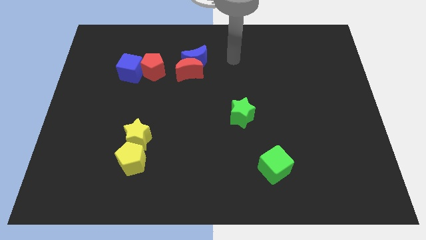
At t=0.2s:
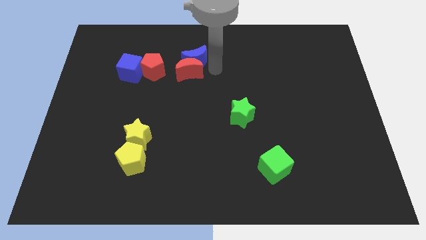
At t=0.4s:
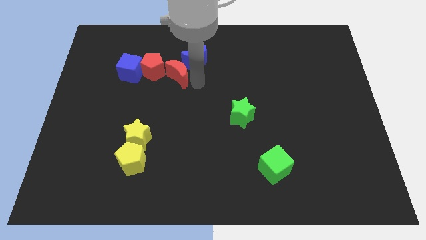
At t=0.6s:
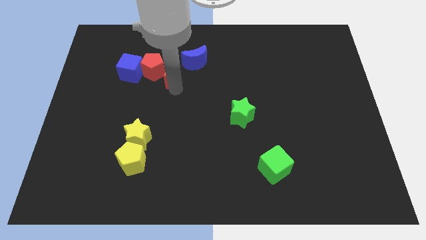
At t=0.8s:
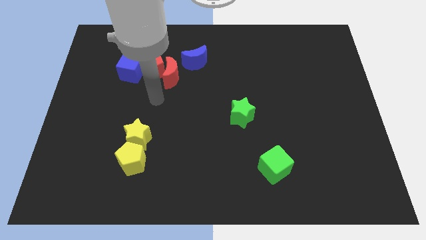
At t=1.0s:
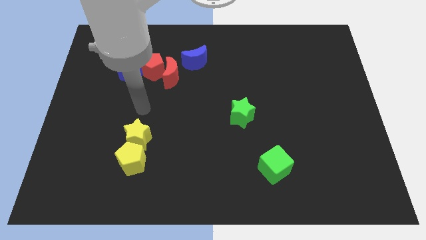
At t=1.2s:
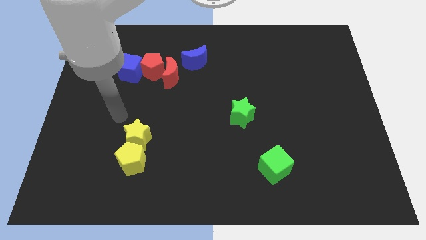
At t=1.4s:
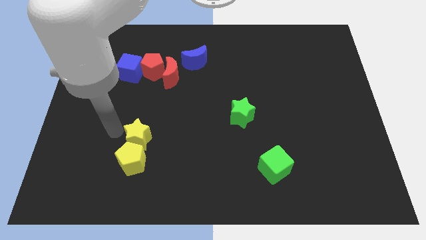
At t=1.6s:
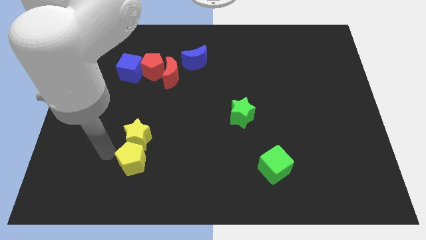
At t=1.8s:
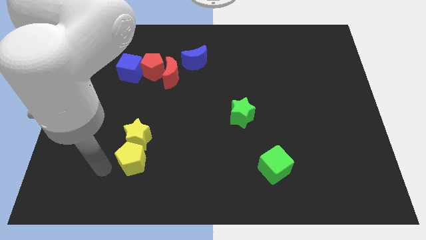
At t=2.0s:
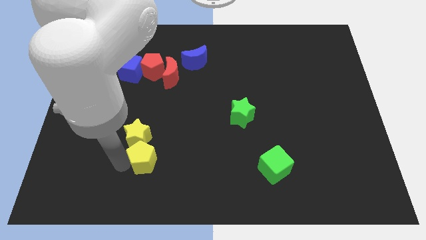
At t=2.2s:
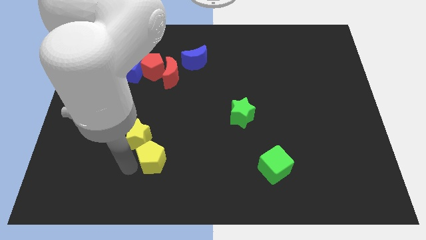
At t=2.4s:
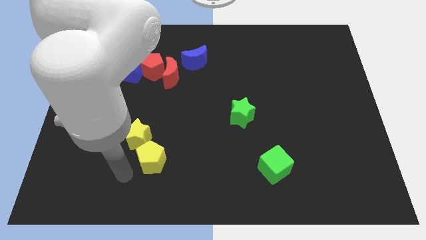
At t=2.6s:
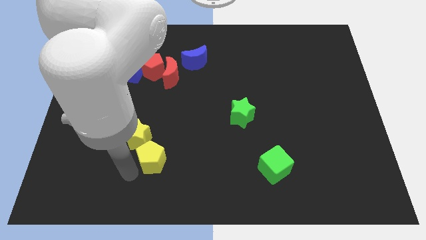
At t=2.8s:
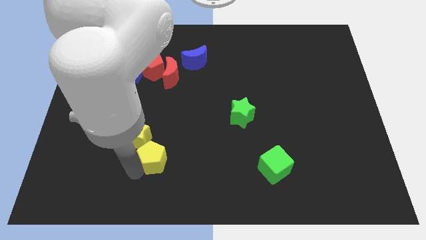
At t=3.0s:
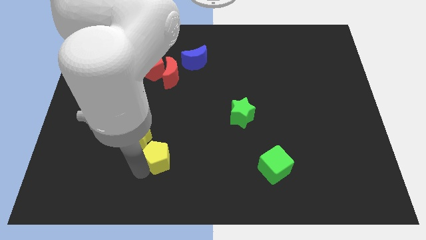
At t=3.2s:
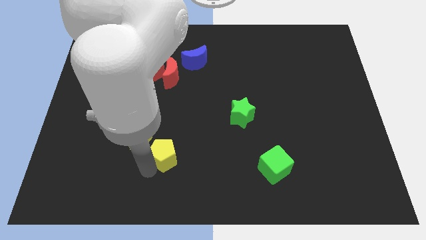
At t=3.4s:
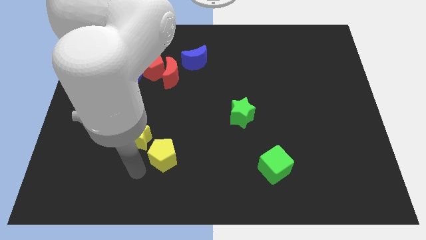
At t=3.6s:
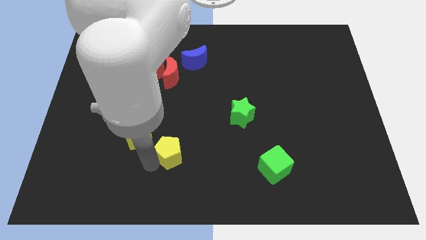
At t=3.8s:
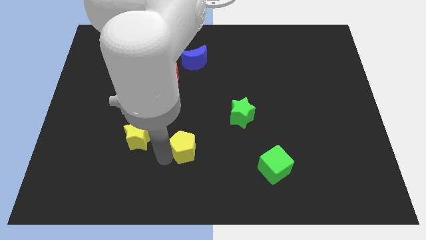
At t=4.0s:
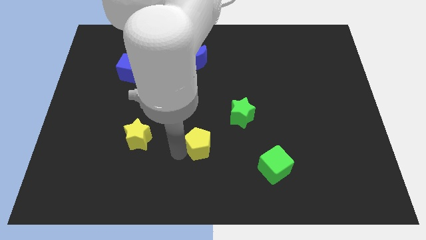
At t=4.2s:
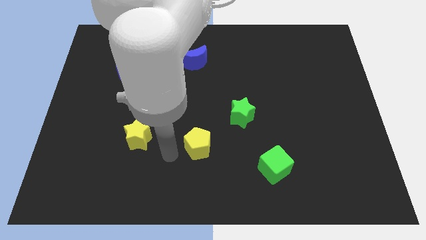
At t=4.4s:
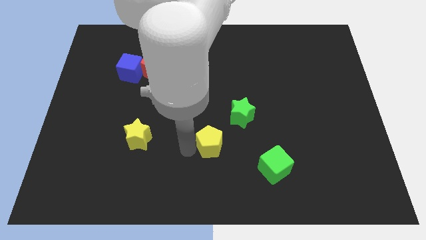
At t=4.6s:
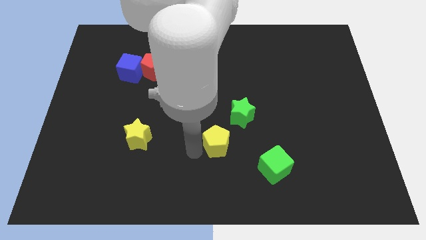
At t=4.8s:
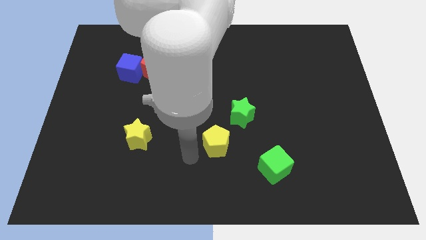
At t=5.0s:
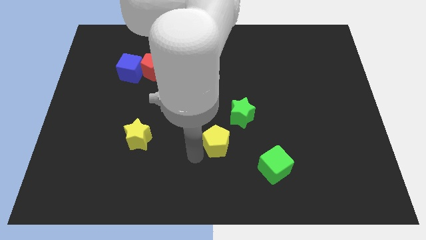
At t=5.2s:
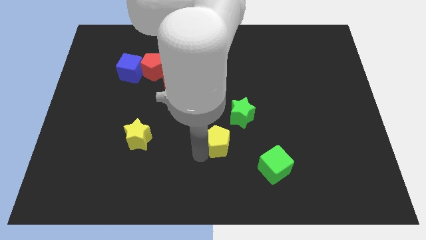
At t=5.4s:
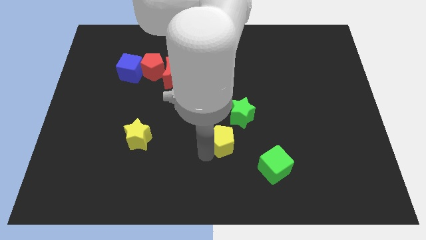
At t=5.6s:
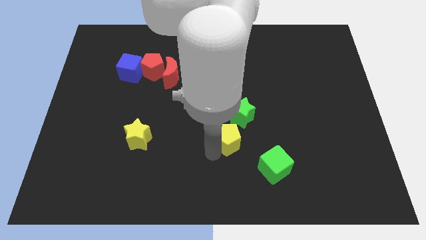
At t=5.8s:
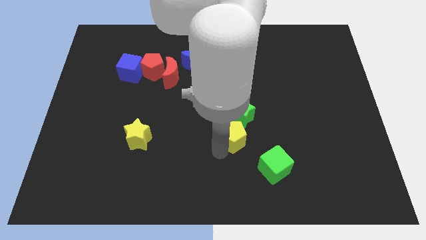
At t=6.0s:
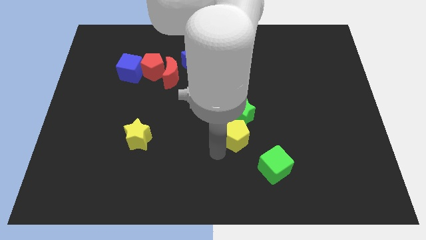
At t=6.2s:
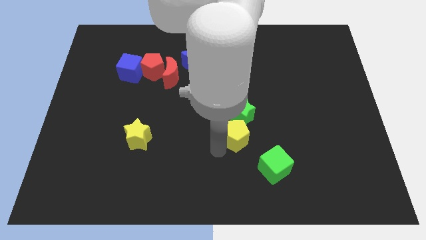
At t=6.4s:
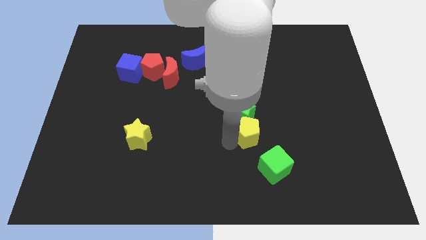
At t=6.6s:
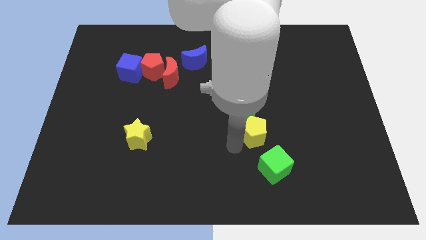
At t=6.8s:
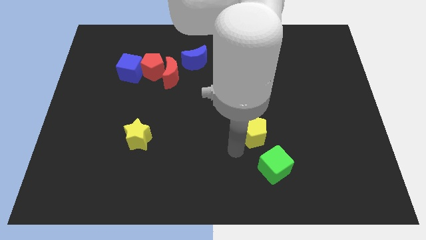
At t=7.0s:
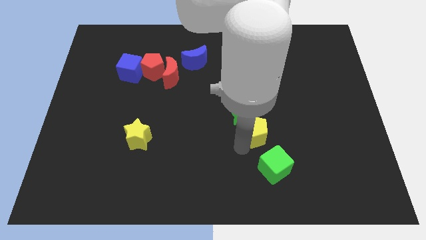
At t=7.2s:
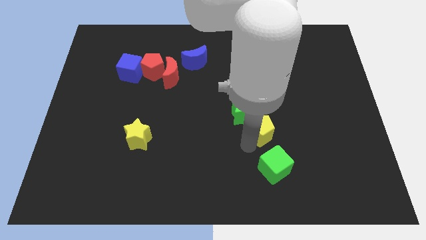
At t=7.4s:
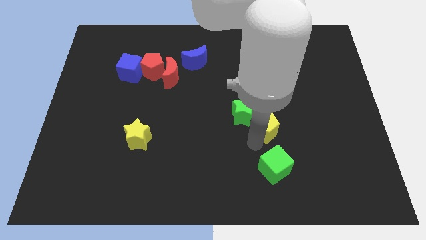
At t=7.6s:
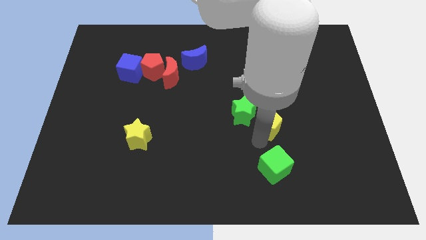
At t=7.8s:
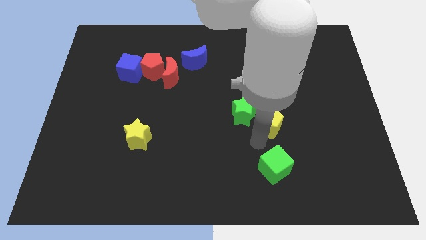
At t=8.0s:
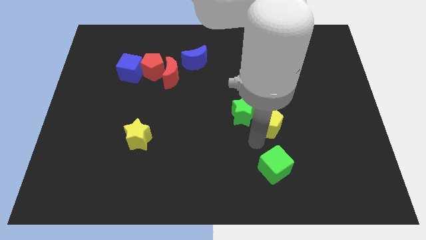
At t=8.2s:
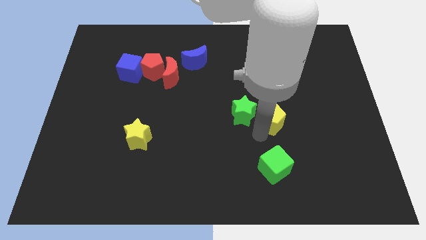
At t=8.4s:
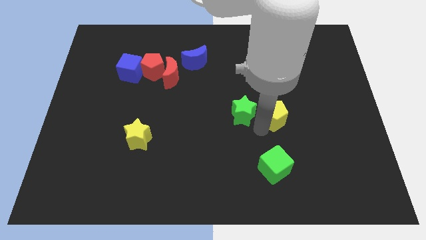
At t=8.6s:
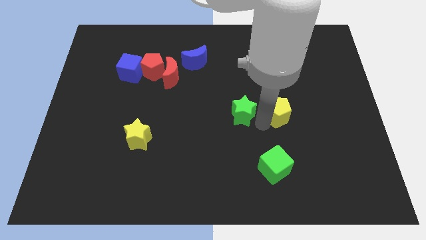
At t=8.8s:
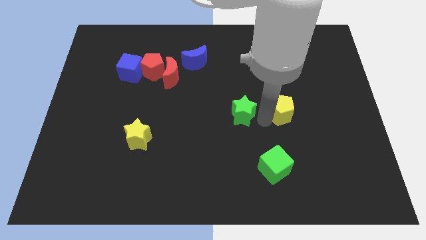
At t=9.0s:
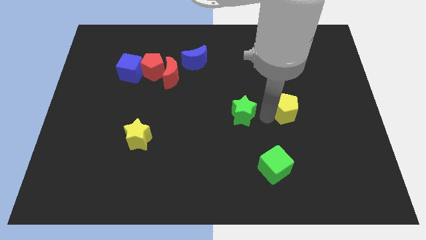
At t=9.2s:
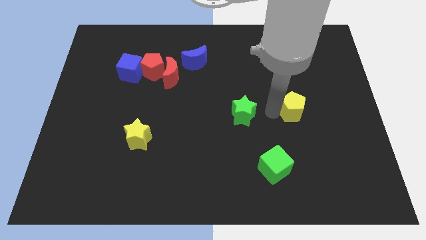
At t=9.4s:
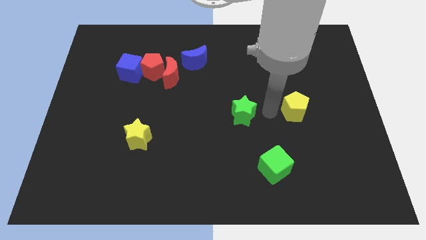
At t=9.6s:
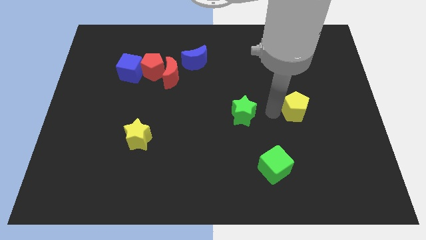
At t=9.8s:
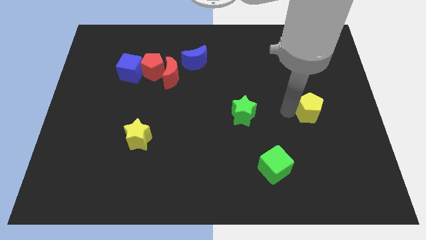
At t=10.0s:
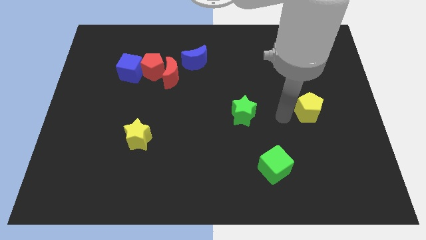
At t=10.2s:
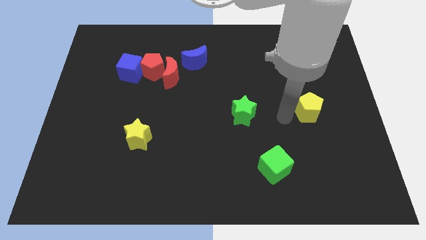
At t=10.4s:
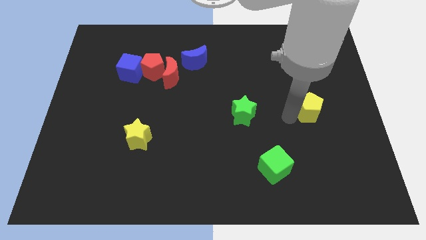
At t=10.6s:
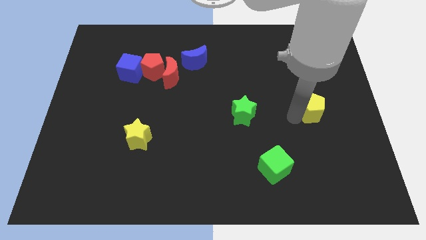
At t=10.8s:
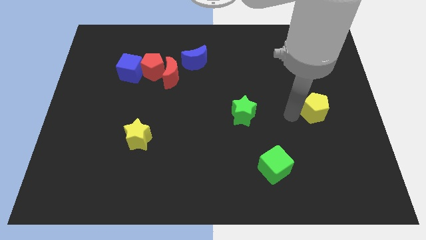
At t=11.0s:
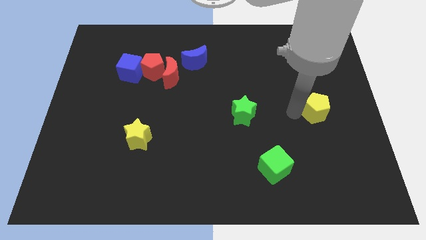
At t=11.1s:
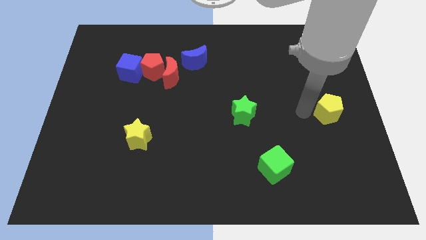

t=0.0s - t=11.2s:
move the yellow pentagon to the center right

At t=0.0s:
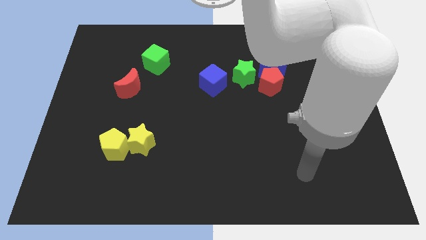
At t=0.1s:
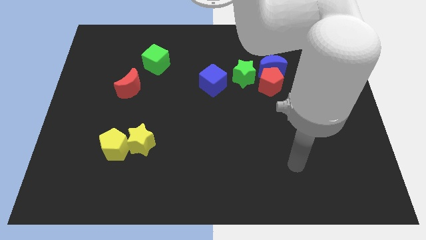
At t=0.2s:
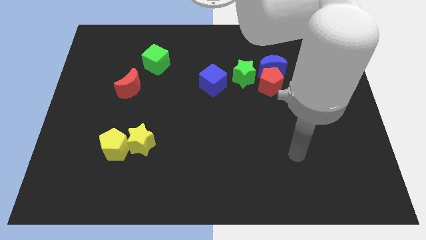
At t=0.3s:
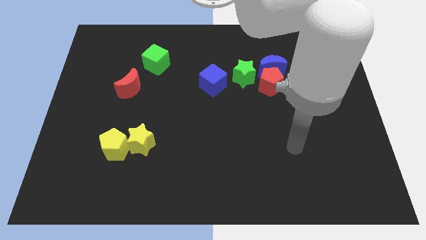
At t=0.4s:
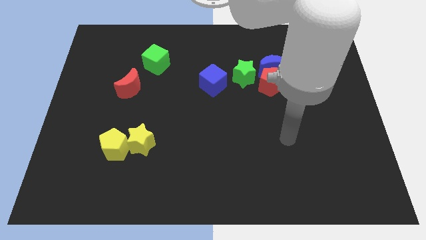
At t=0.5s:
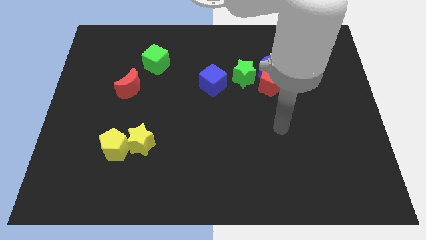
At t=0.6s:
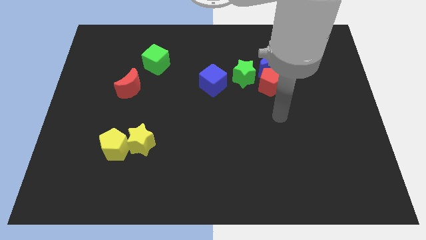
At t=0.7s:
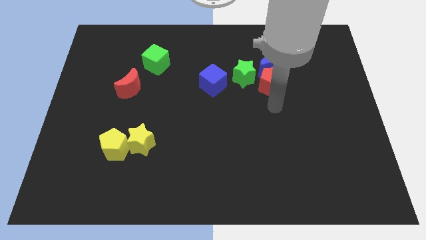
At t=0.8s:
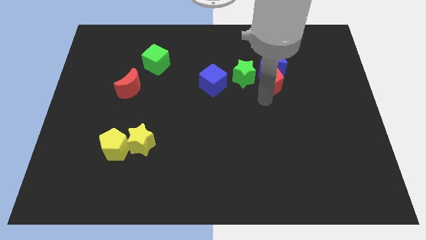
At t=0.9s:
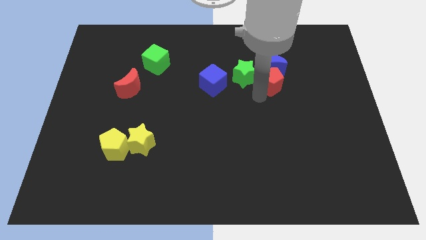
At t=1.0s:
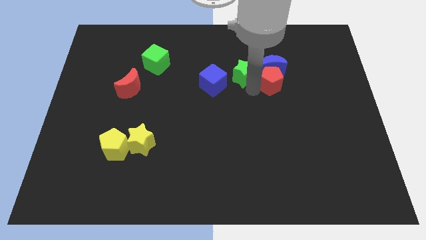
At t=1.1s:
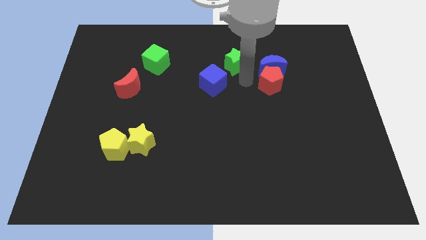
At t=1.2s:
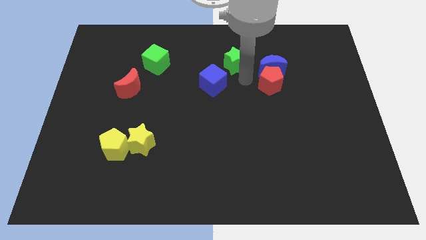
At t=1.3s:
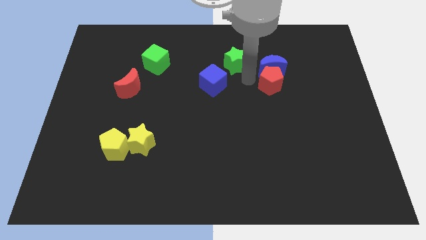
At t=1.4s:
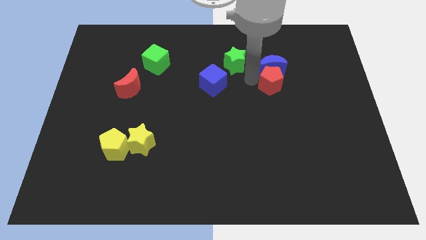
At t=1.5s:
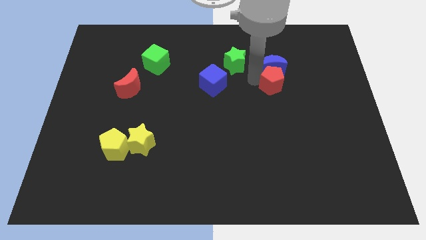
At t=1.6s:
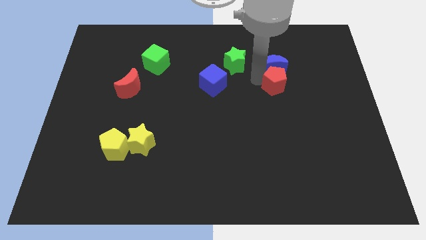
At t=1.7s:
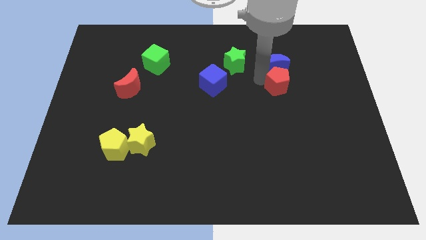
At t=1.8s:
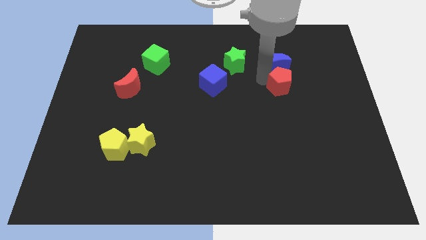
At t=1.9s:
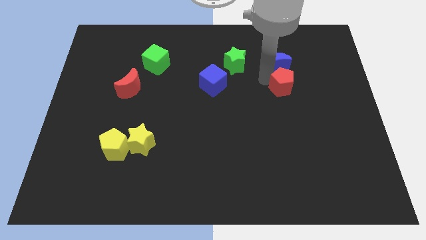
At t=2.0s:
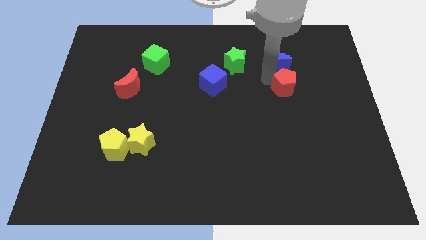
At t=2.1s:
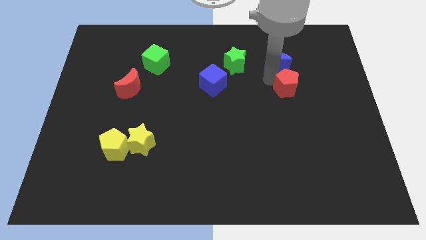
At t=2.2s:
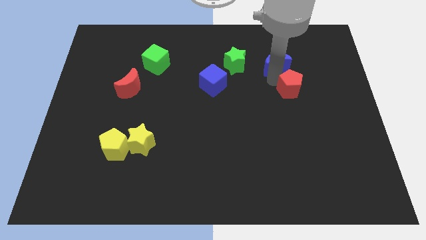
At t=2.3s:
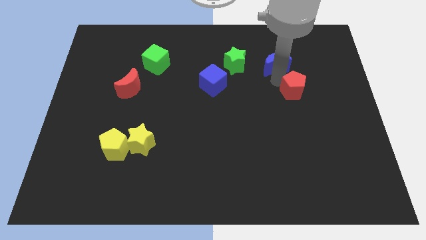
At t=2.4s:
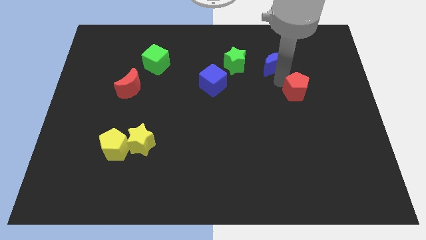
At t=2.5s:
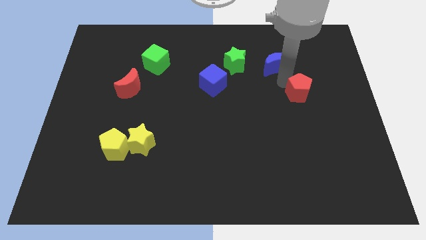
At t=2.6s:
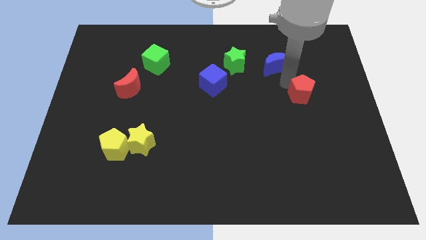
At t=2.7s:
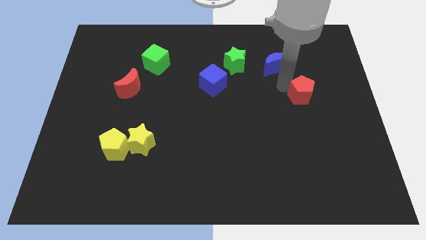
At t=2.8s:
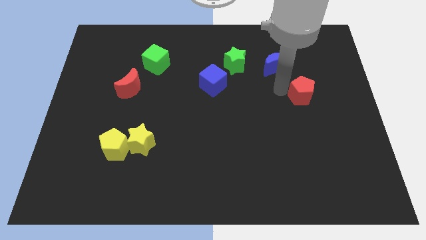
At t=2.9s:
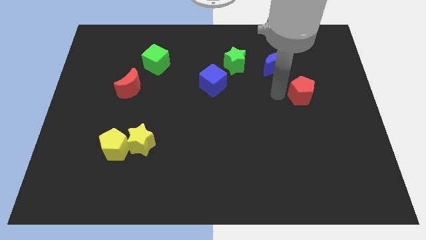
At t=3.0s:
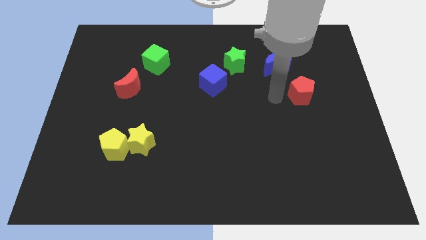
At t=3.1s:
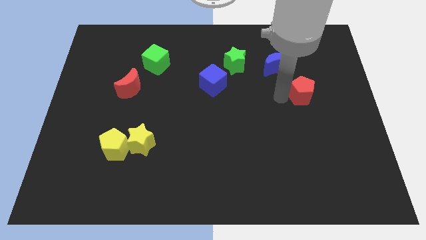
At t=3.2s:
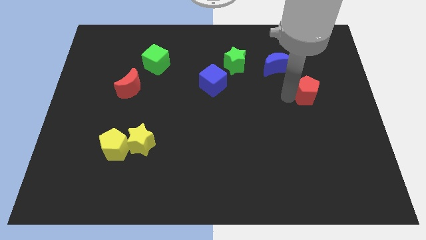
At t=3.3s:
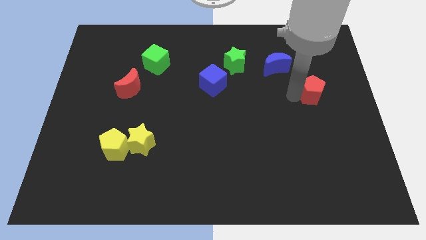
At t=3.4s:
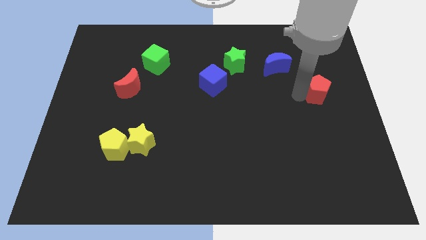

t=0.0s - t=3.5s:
move the red pentagon to the right side
